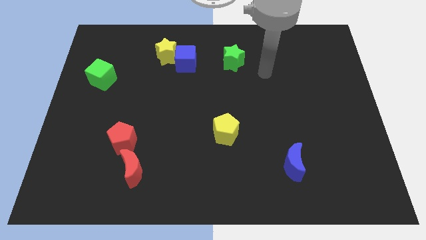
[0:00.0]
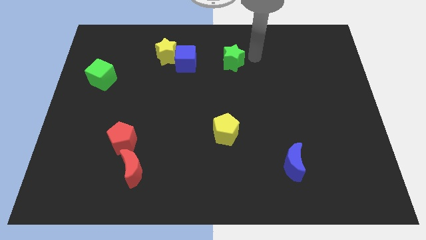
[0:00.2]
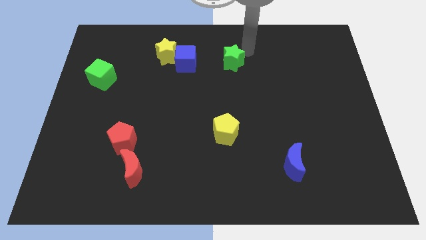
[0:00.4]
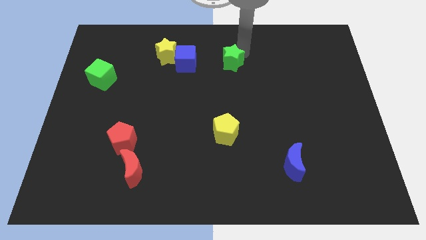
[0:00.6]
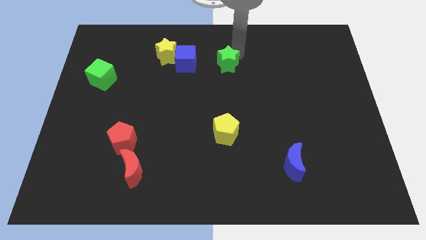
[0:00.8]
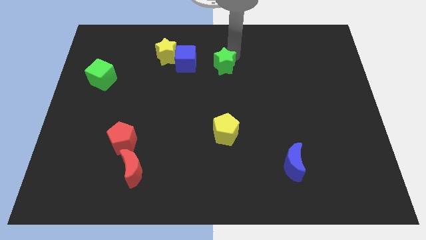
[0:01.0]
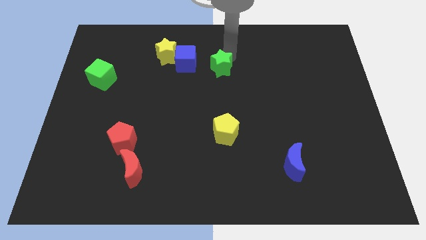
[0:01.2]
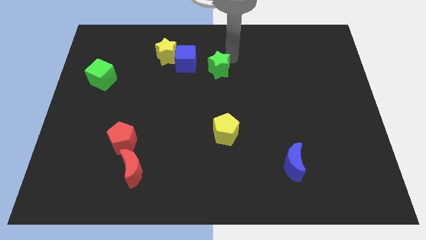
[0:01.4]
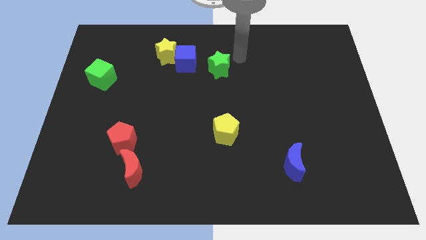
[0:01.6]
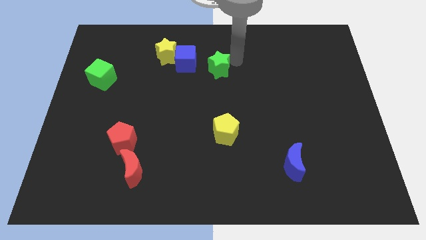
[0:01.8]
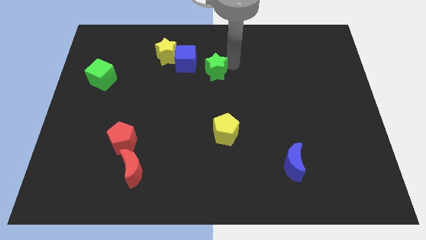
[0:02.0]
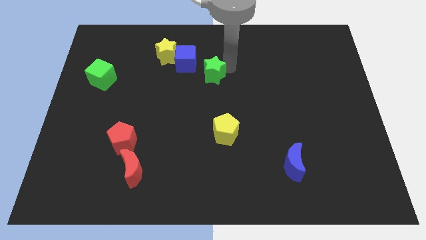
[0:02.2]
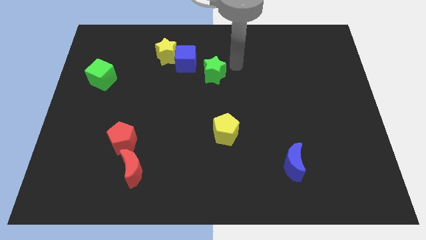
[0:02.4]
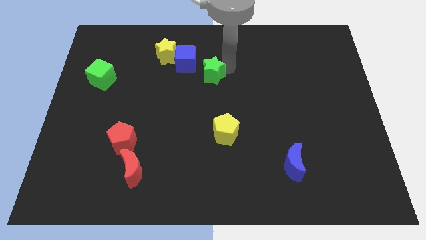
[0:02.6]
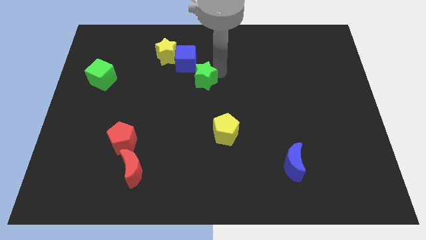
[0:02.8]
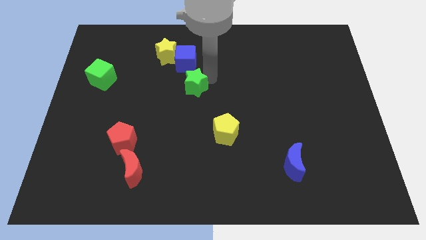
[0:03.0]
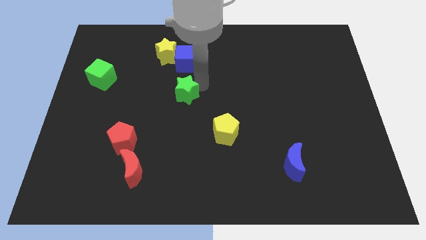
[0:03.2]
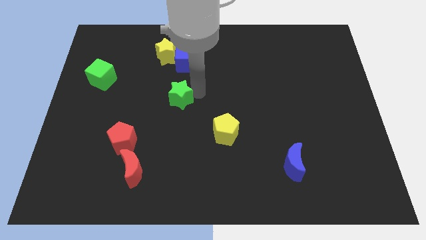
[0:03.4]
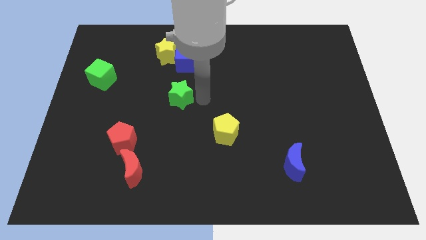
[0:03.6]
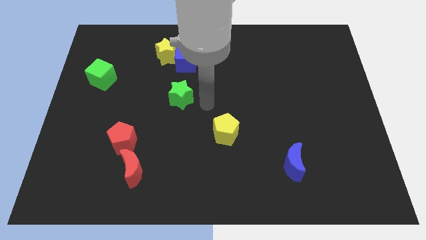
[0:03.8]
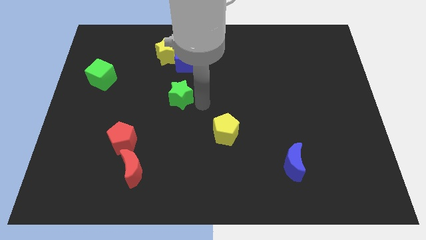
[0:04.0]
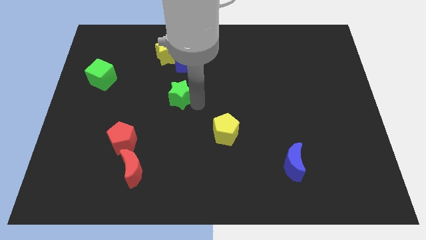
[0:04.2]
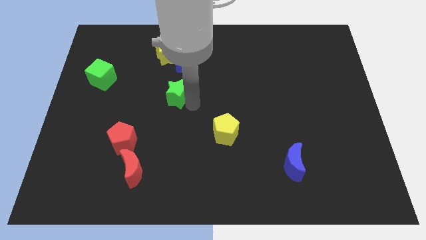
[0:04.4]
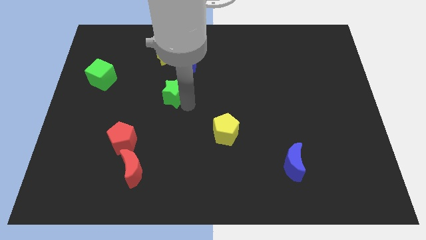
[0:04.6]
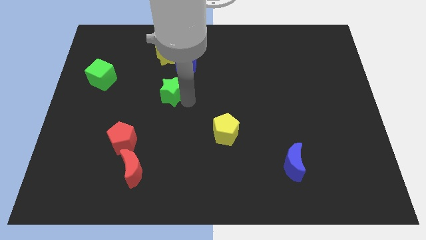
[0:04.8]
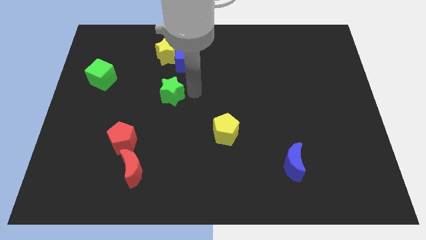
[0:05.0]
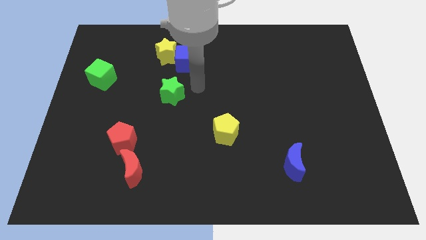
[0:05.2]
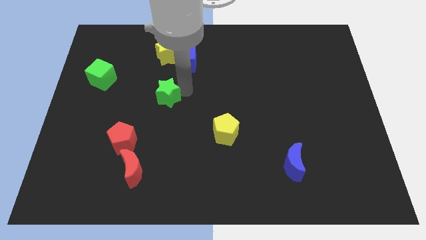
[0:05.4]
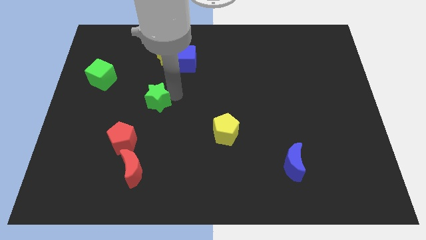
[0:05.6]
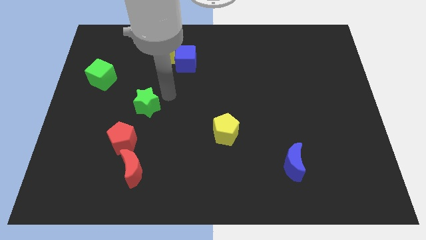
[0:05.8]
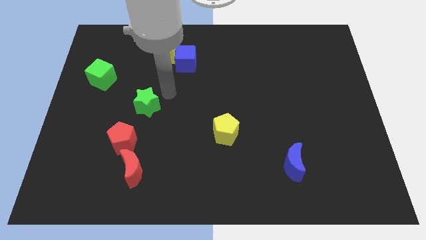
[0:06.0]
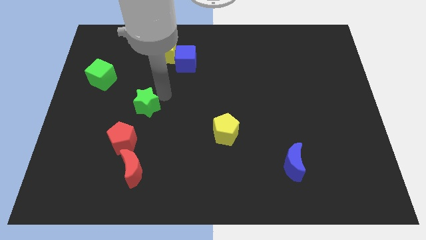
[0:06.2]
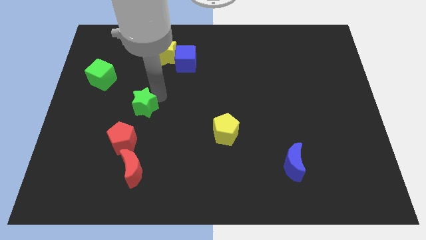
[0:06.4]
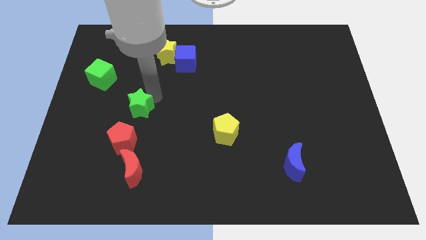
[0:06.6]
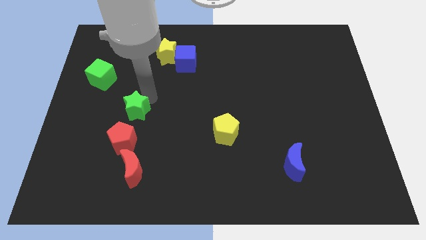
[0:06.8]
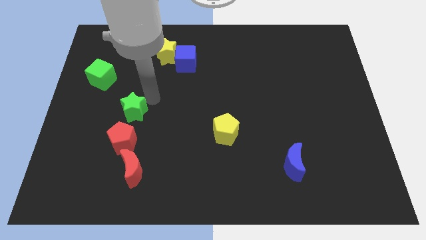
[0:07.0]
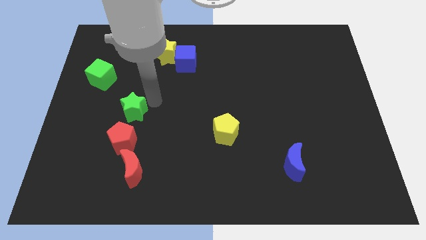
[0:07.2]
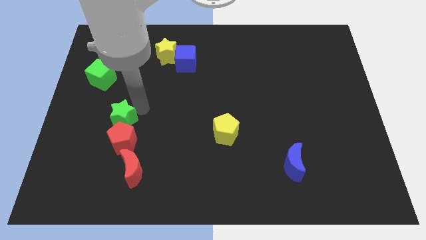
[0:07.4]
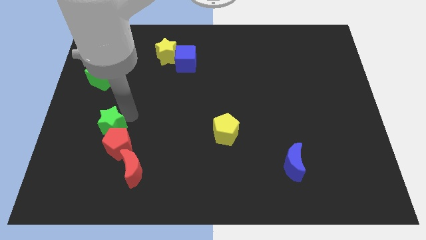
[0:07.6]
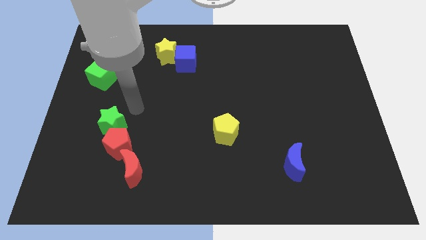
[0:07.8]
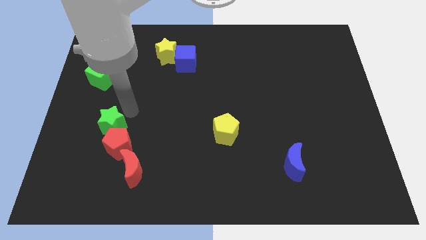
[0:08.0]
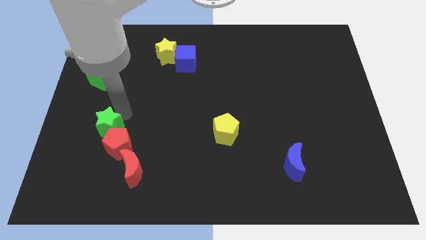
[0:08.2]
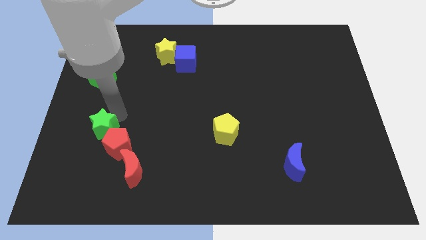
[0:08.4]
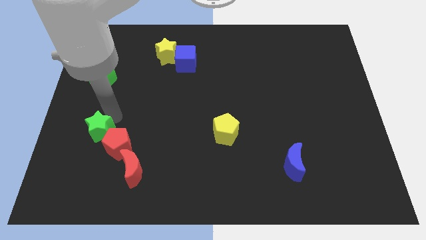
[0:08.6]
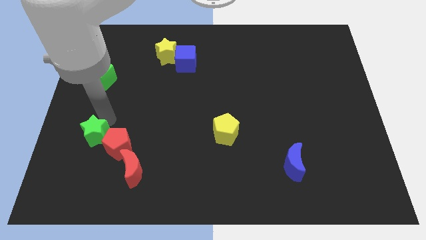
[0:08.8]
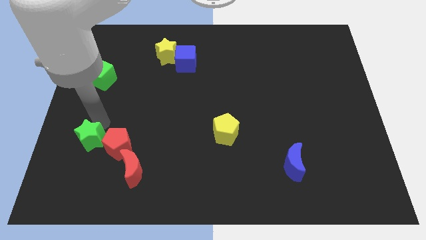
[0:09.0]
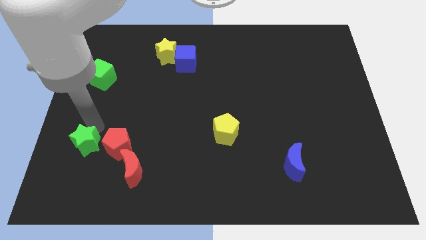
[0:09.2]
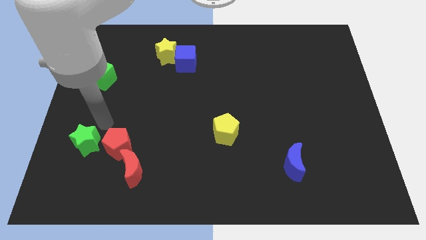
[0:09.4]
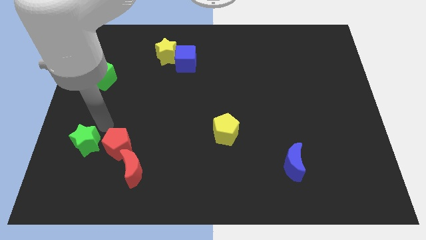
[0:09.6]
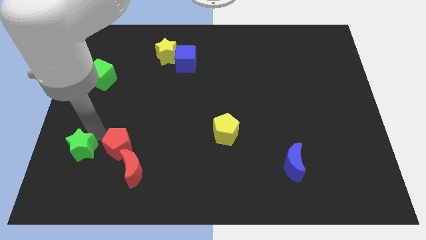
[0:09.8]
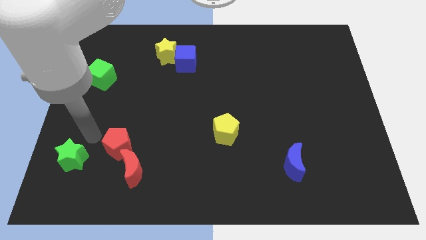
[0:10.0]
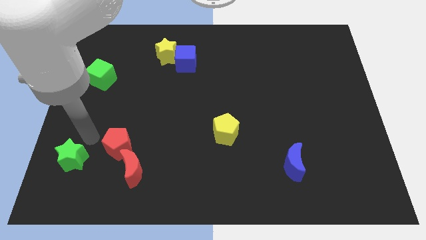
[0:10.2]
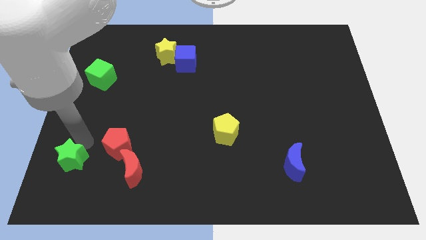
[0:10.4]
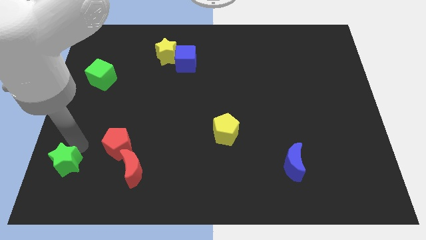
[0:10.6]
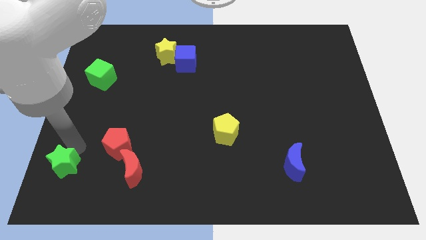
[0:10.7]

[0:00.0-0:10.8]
move the green star to the bottom left

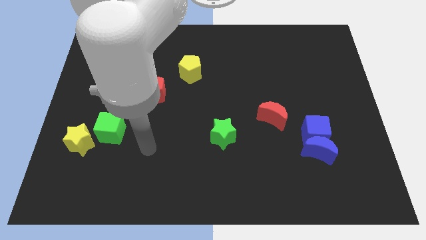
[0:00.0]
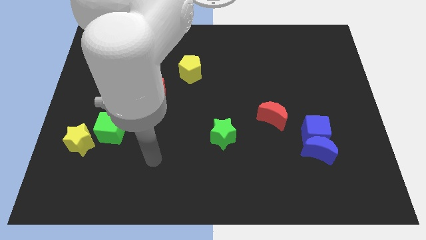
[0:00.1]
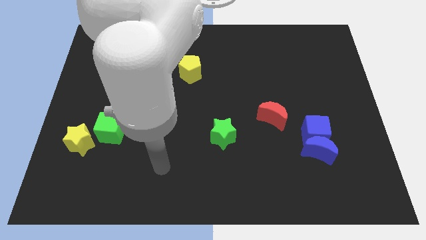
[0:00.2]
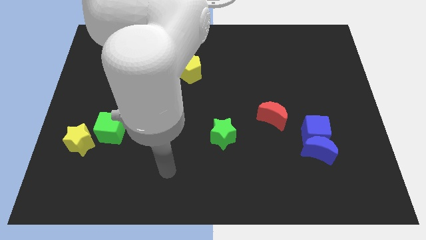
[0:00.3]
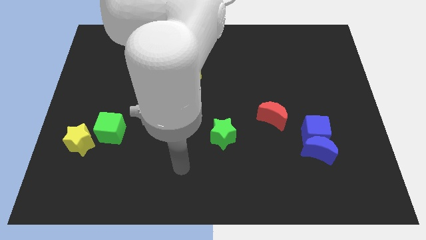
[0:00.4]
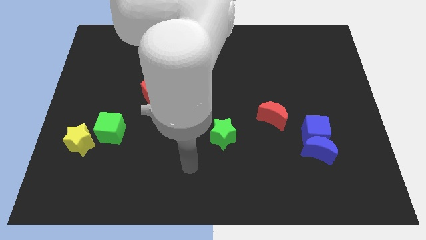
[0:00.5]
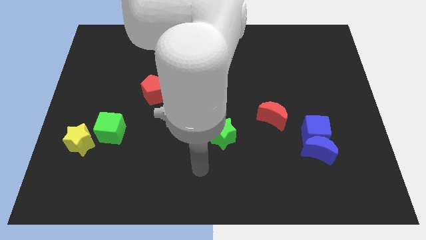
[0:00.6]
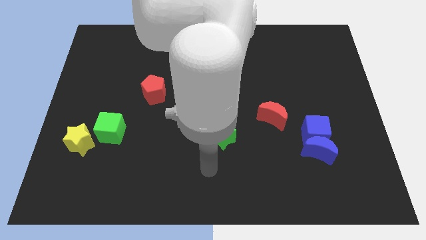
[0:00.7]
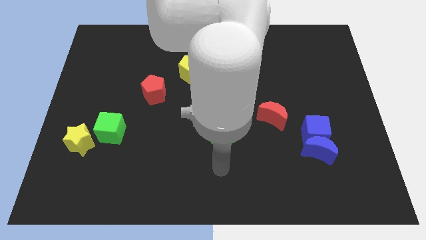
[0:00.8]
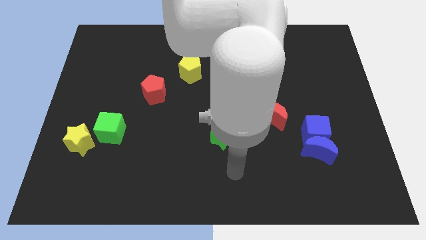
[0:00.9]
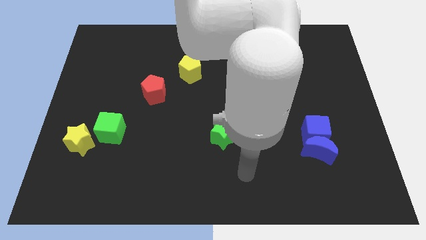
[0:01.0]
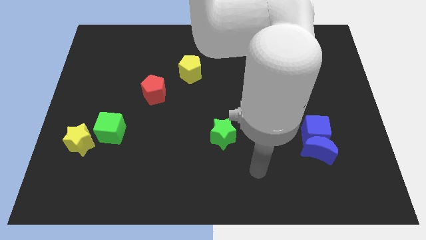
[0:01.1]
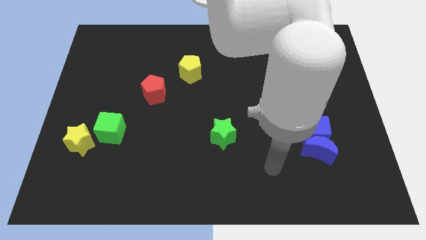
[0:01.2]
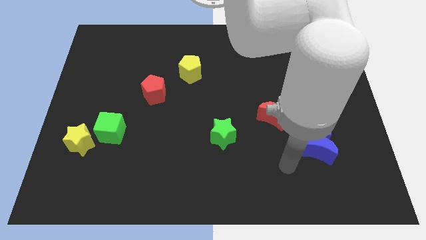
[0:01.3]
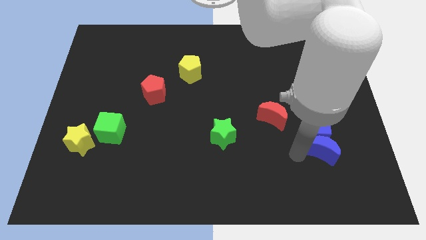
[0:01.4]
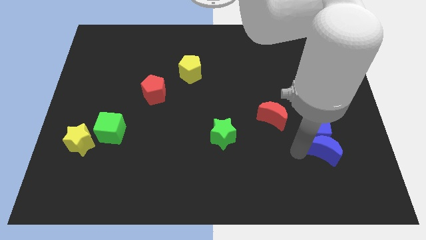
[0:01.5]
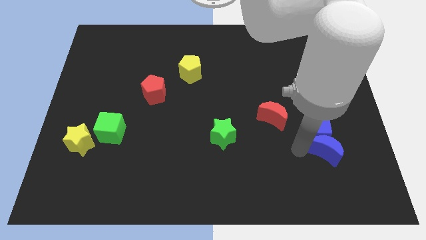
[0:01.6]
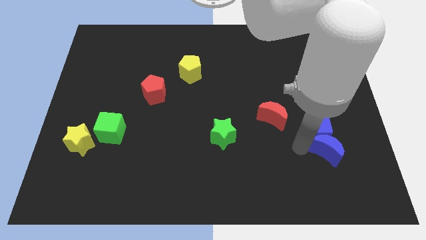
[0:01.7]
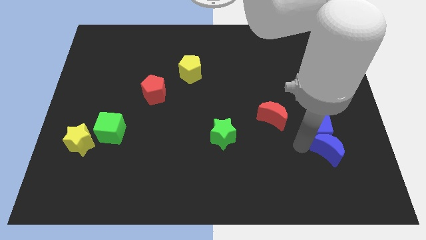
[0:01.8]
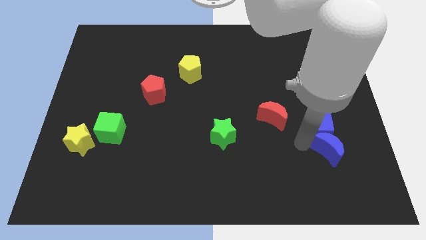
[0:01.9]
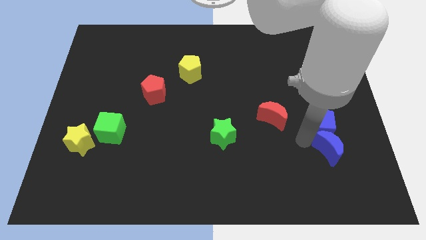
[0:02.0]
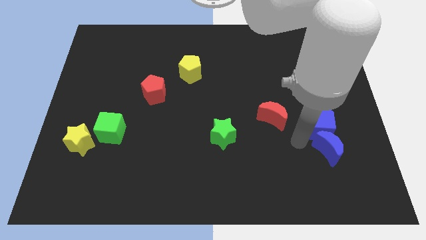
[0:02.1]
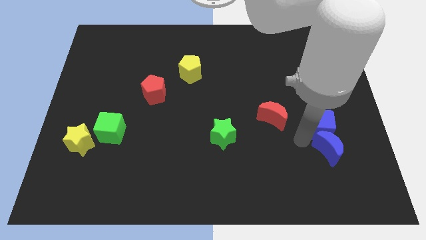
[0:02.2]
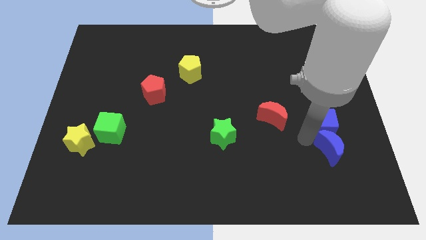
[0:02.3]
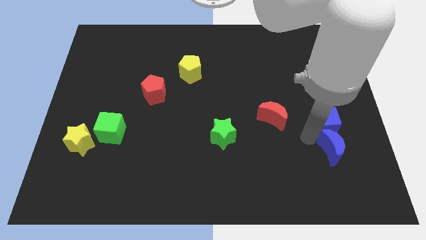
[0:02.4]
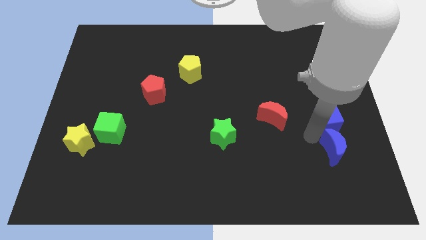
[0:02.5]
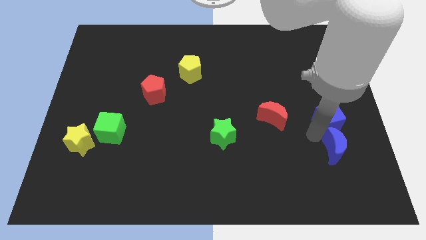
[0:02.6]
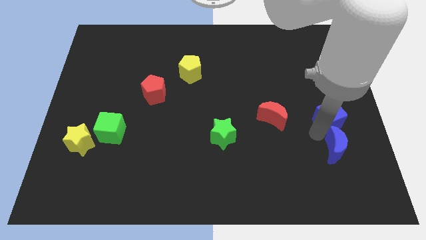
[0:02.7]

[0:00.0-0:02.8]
move the blue cube to the right side of the board
